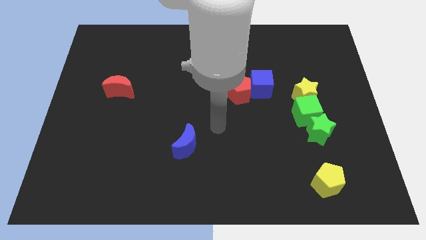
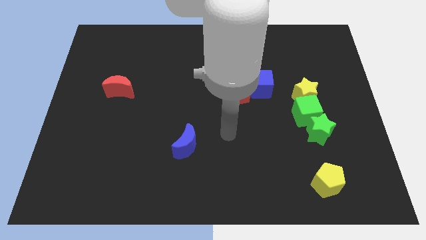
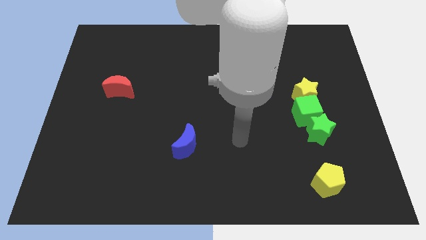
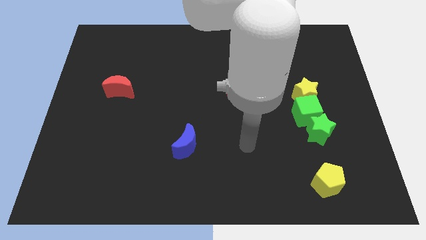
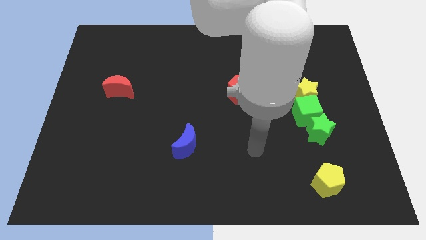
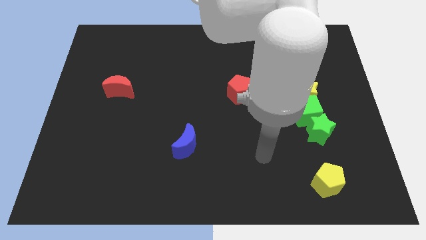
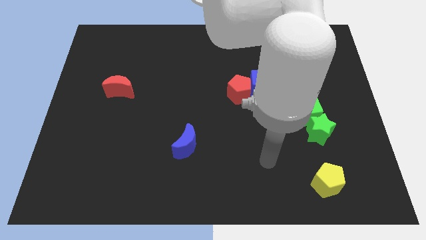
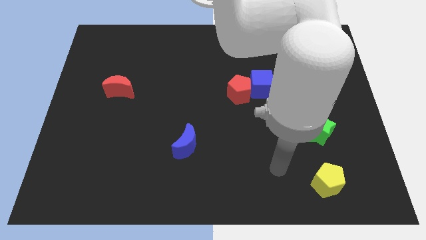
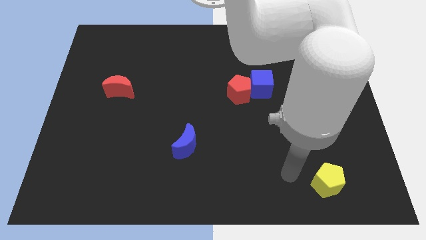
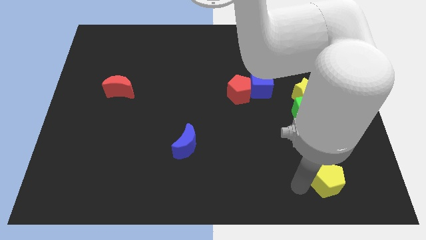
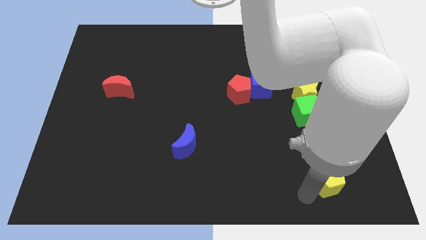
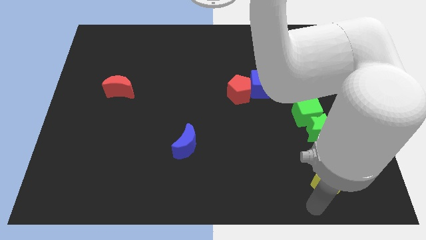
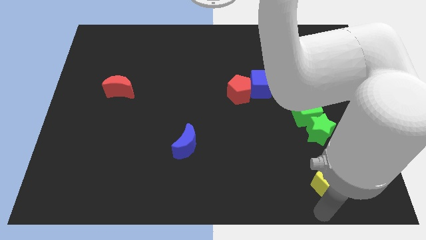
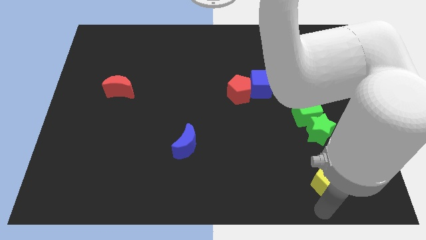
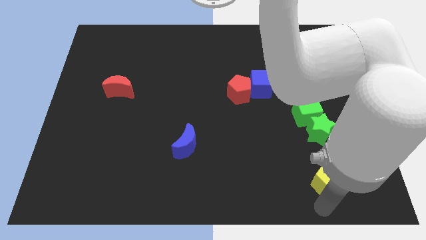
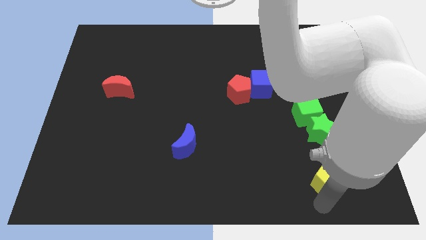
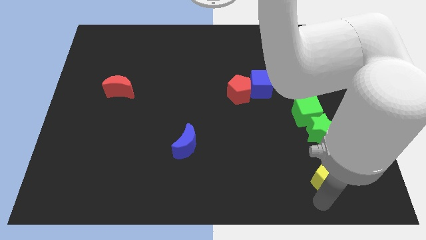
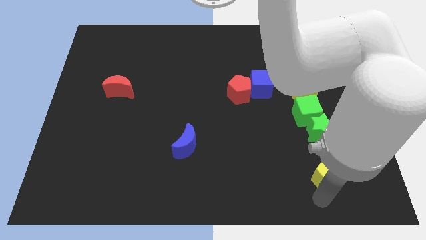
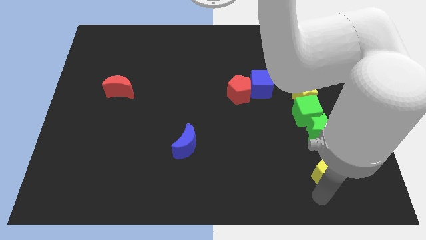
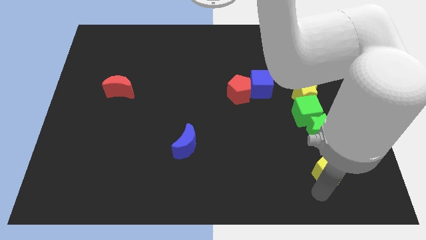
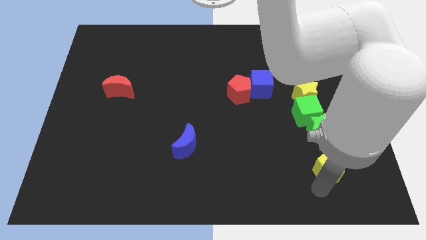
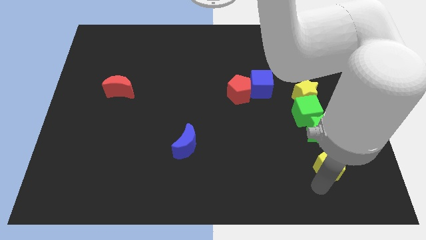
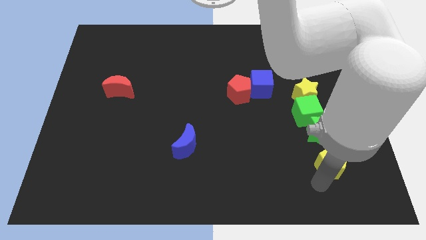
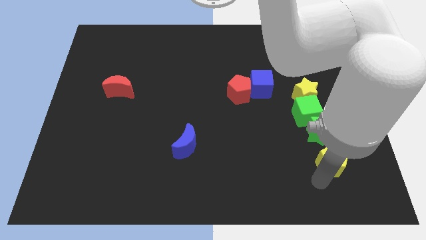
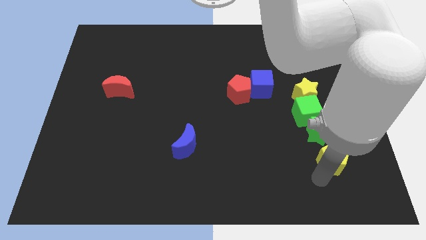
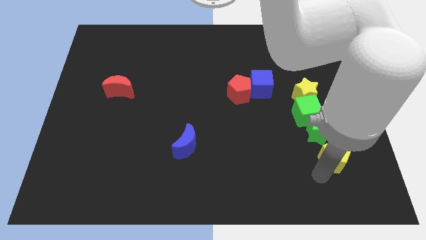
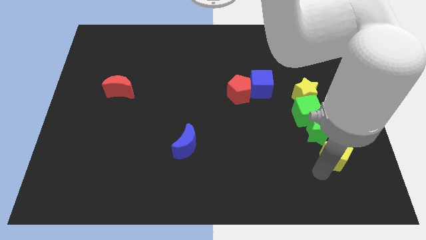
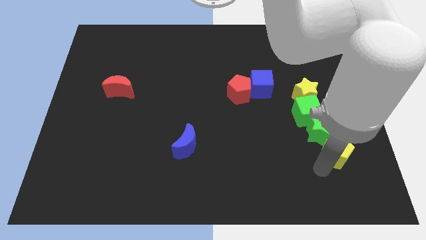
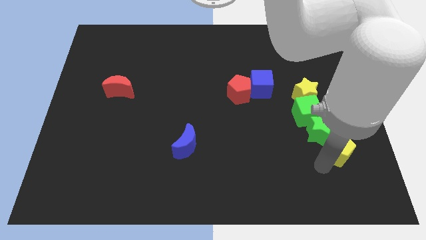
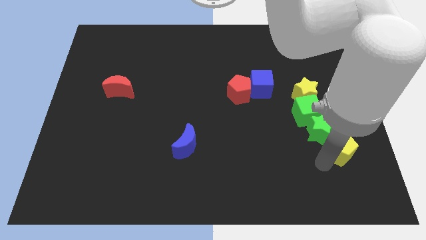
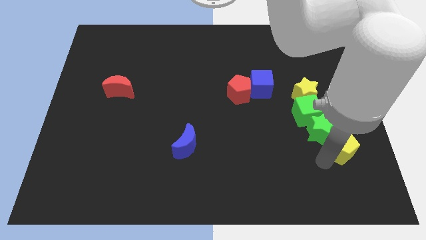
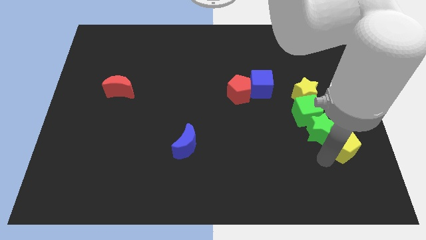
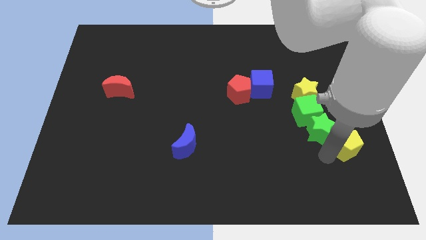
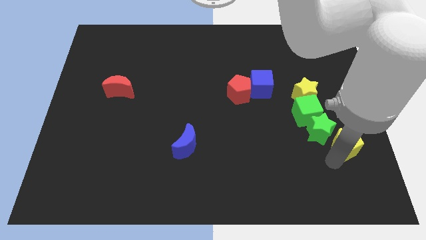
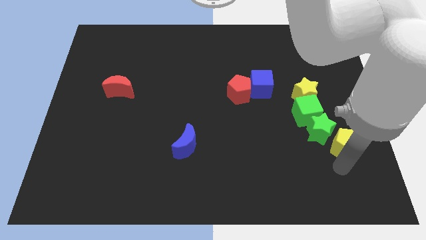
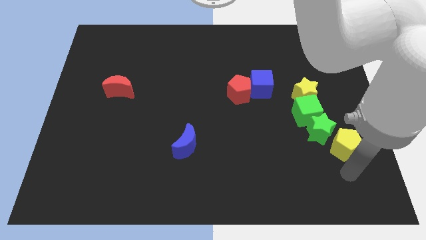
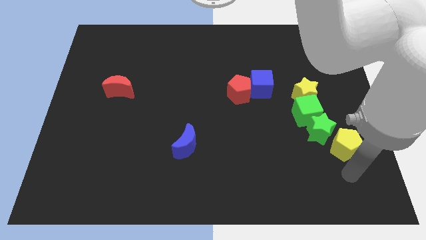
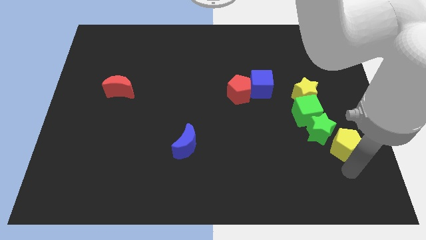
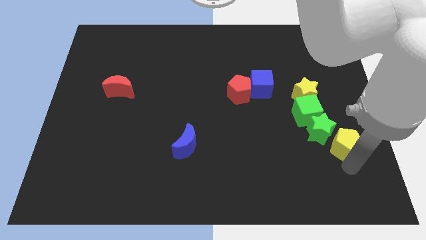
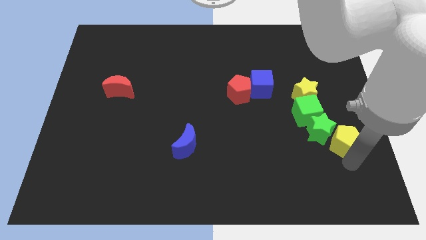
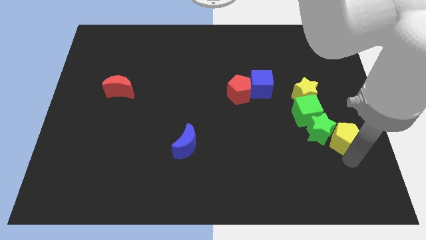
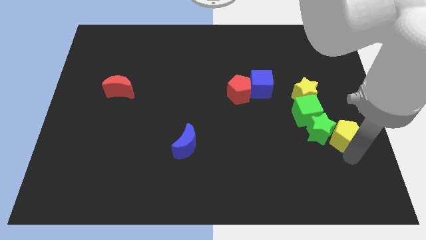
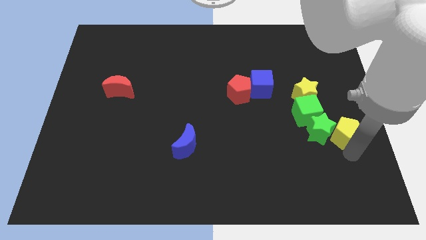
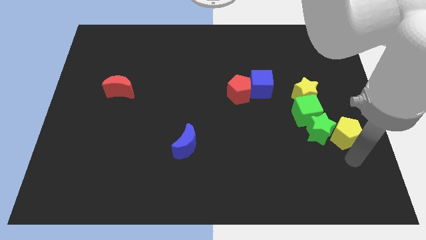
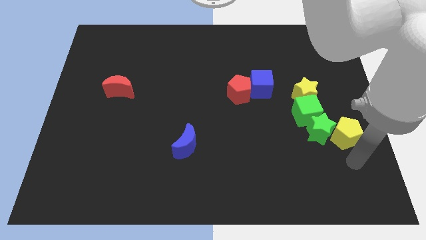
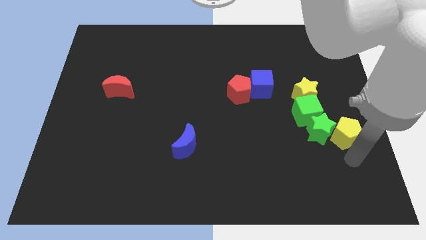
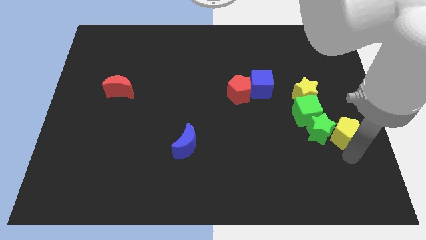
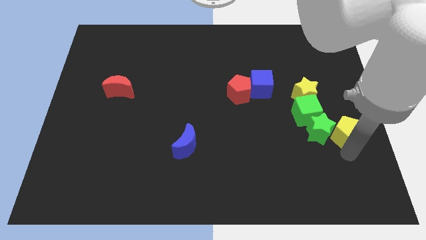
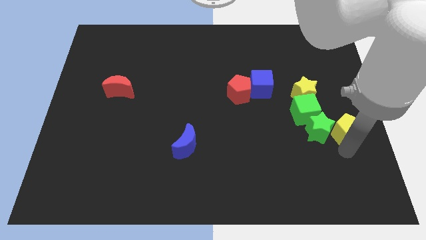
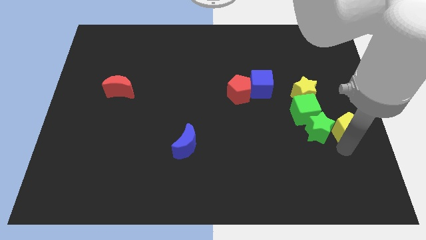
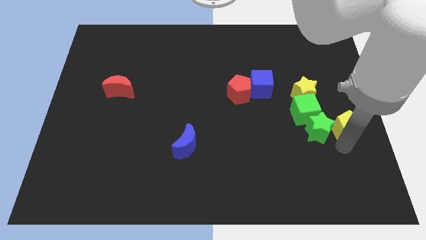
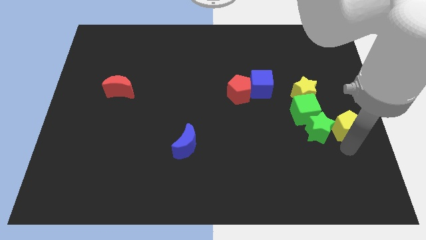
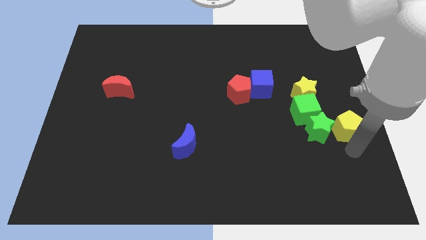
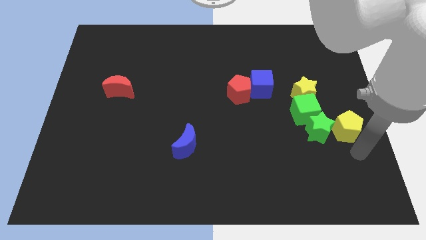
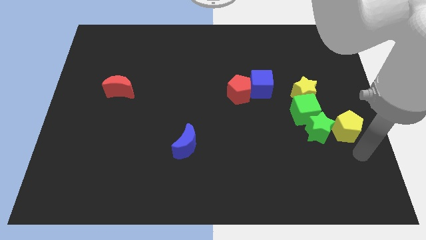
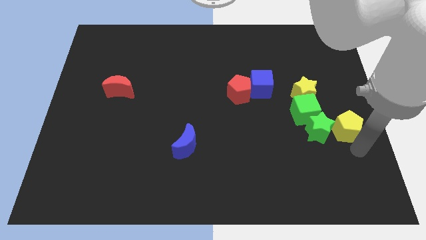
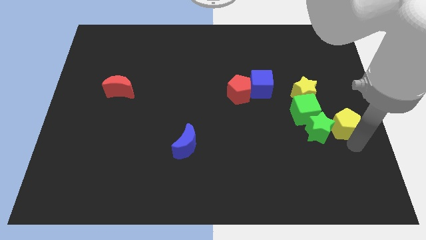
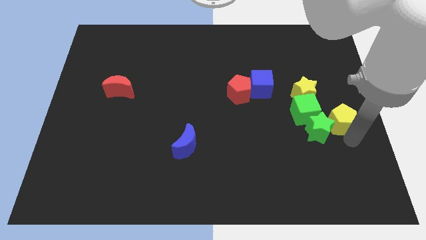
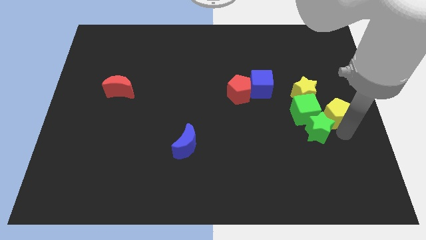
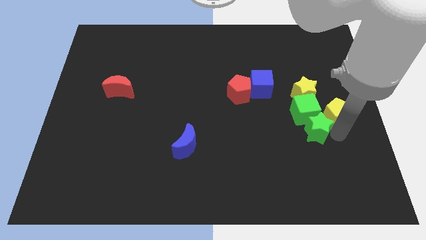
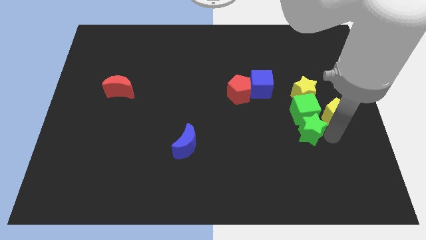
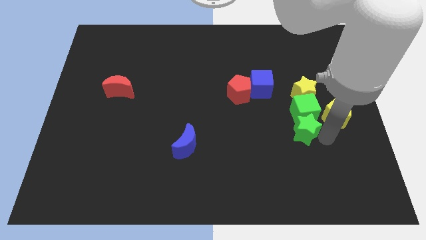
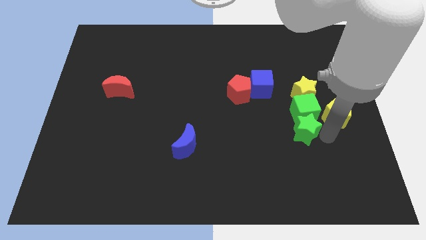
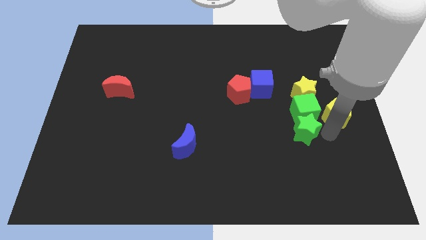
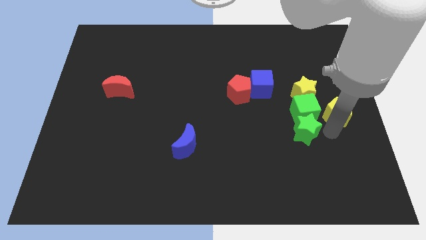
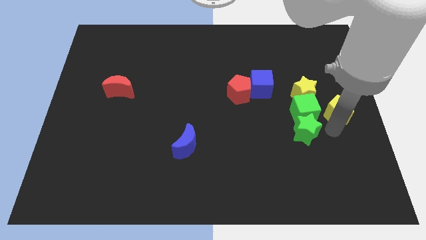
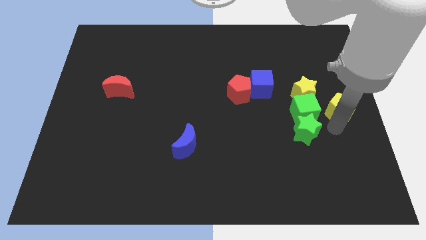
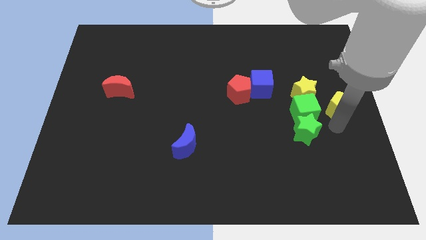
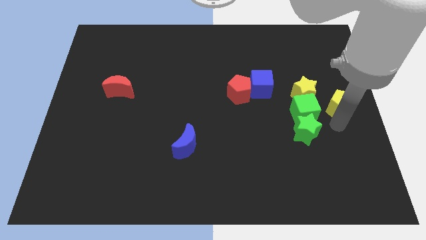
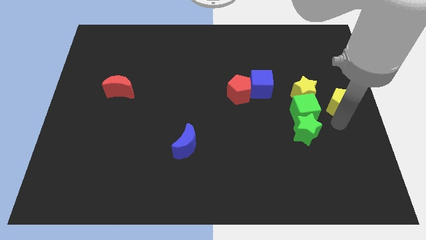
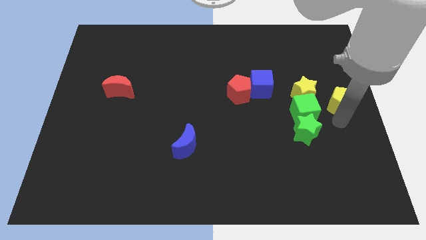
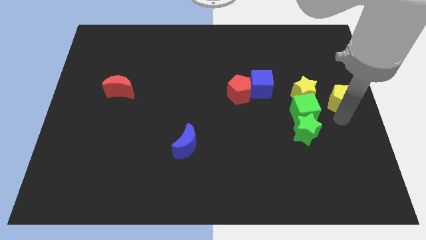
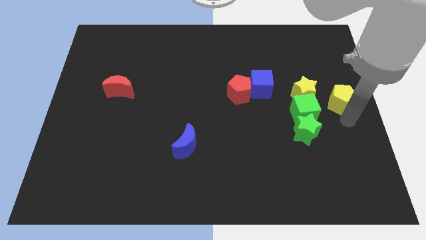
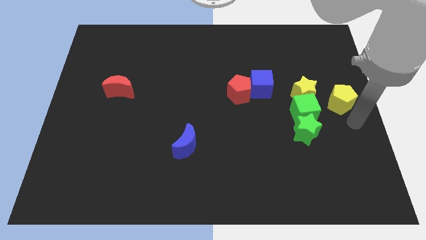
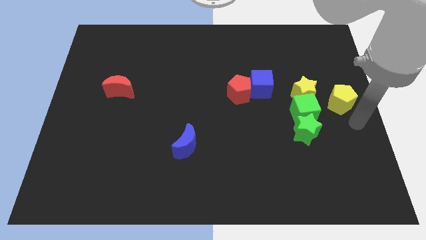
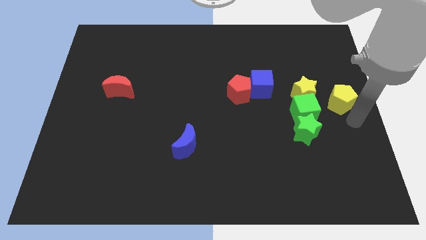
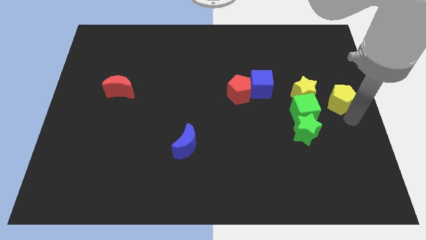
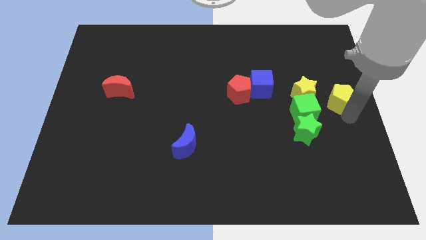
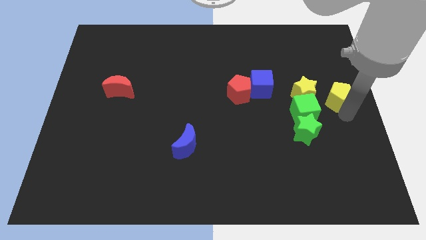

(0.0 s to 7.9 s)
push the yellow pentagon upwards

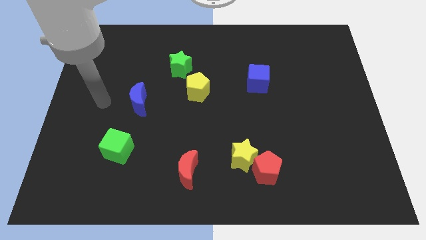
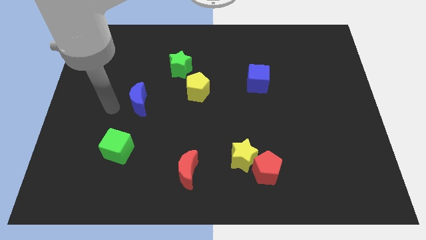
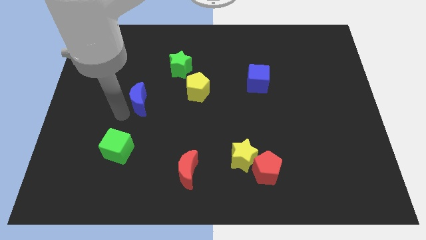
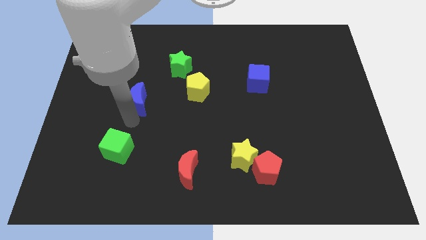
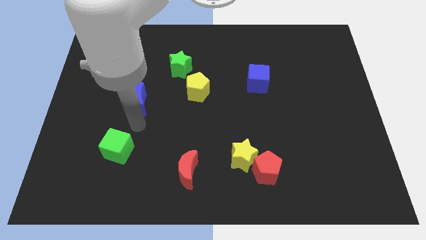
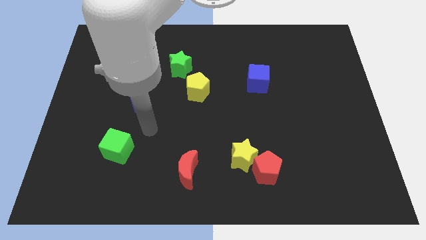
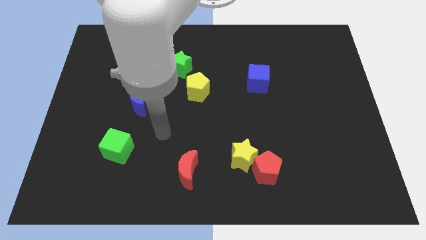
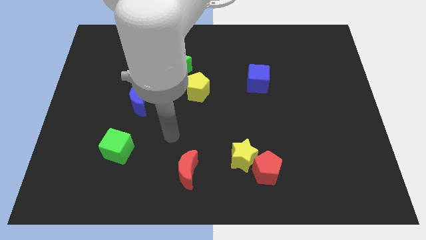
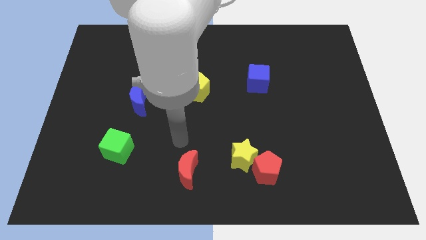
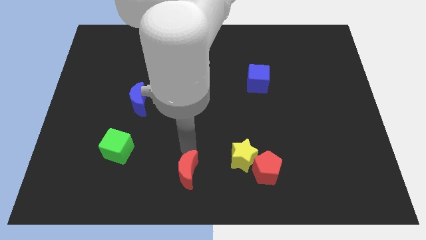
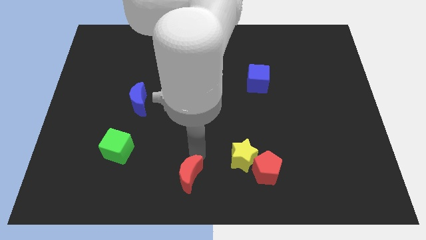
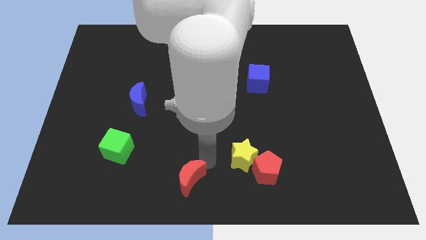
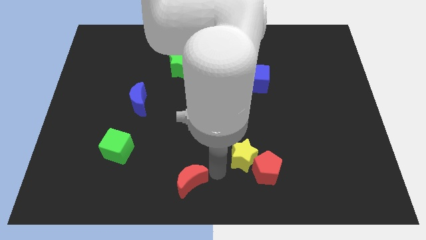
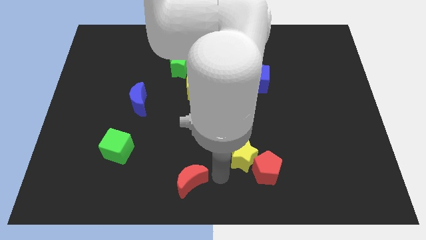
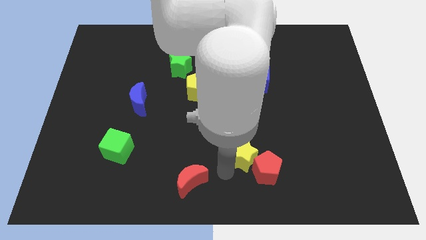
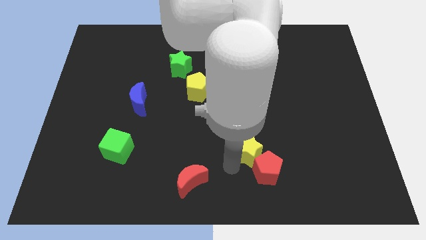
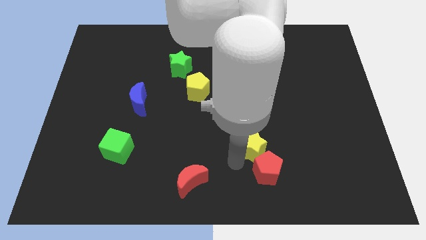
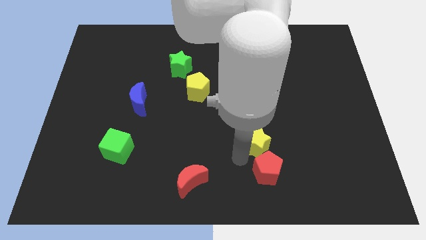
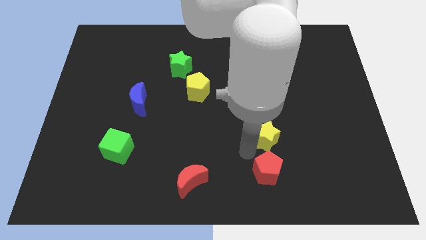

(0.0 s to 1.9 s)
push the yellow star a little bit up and to the right diagonally
